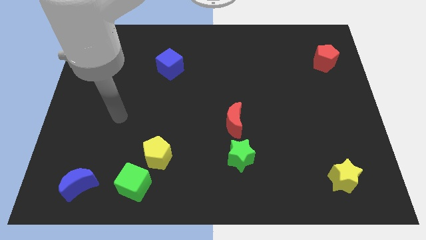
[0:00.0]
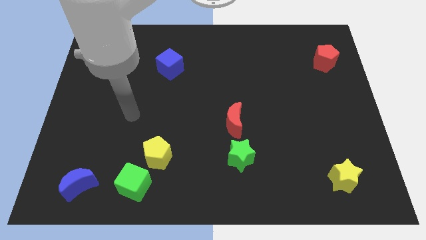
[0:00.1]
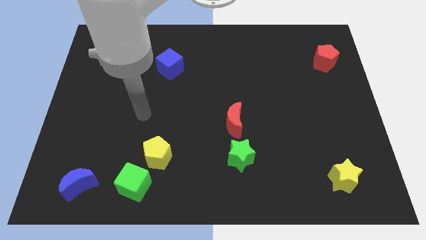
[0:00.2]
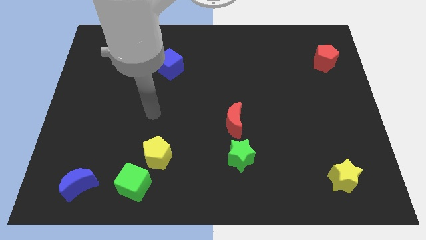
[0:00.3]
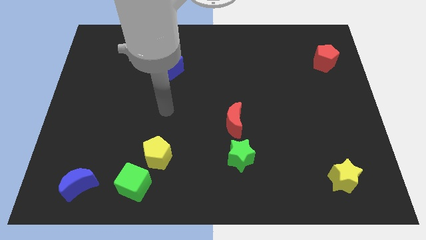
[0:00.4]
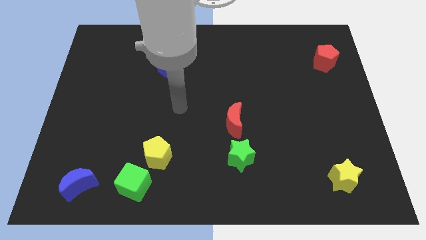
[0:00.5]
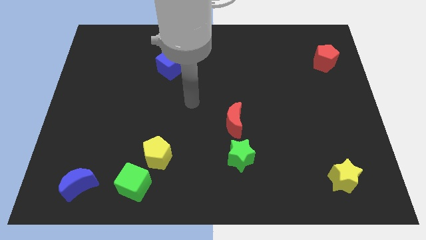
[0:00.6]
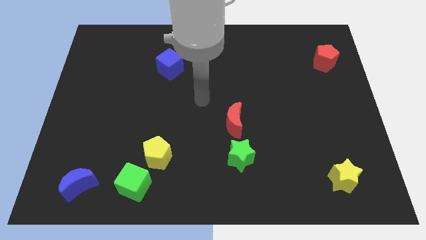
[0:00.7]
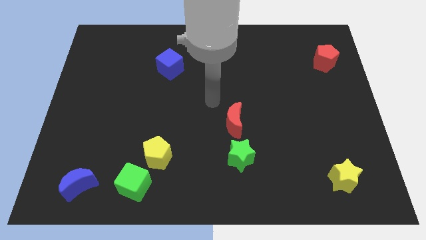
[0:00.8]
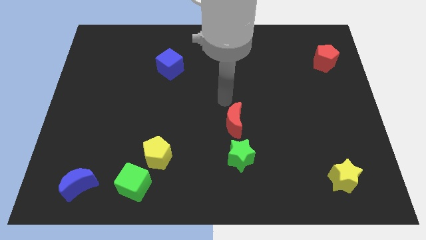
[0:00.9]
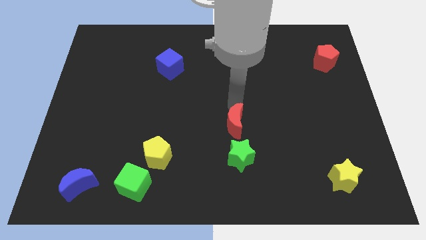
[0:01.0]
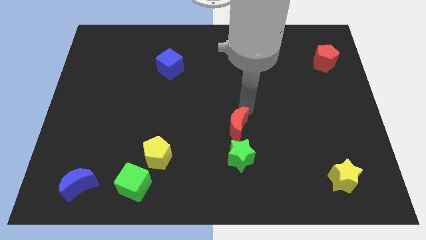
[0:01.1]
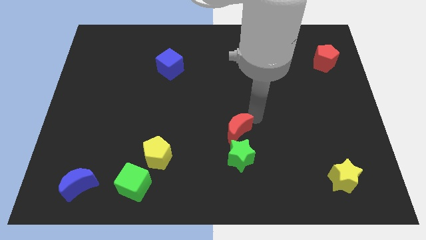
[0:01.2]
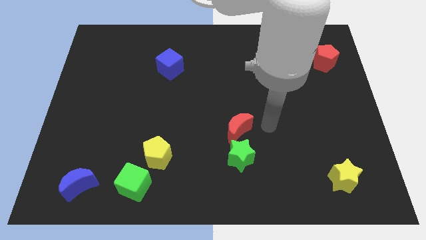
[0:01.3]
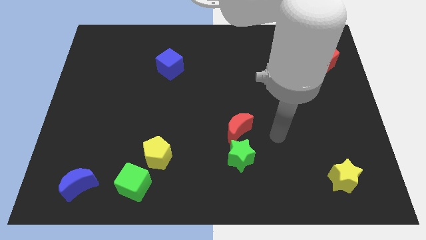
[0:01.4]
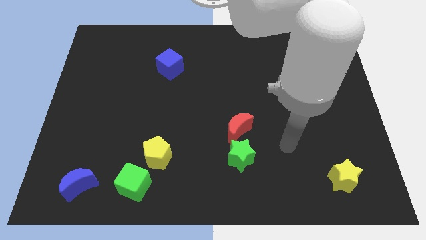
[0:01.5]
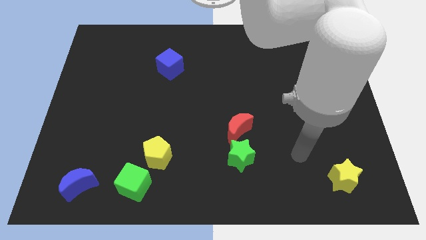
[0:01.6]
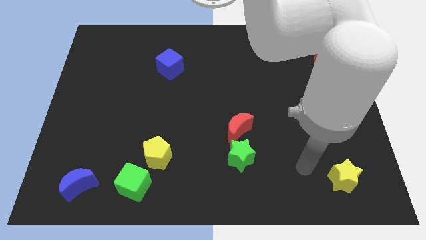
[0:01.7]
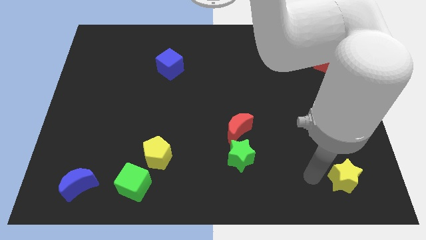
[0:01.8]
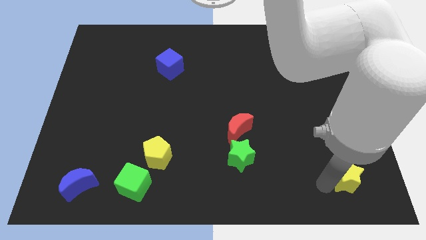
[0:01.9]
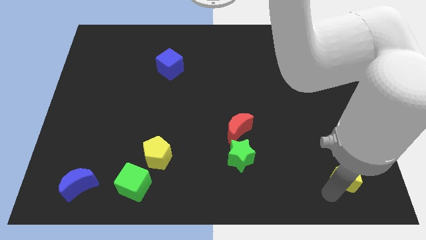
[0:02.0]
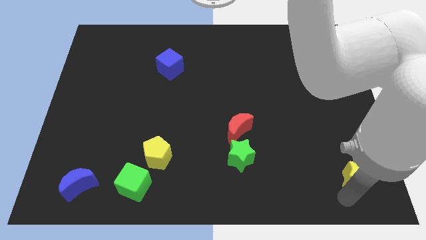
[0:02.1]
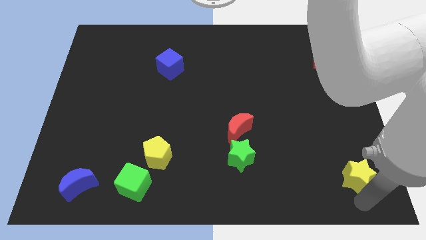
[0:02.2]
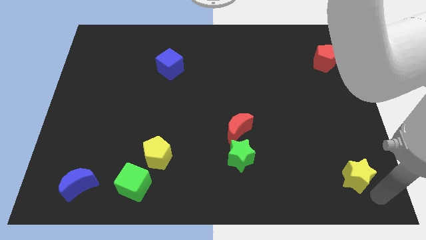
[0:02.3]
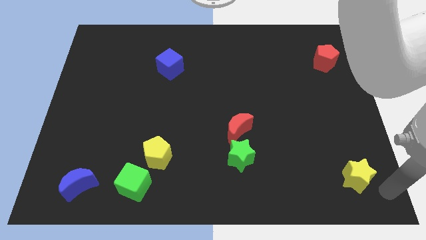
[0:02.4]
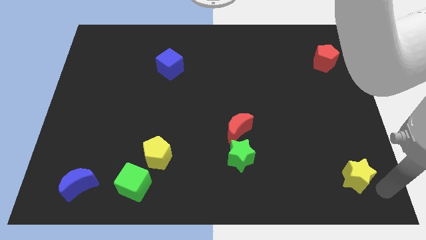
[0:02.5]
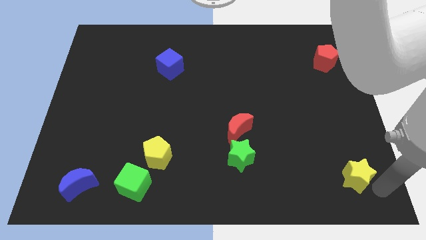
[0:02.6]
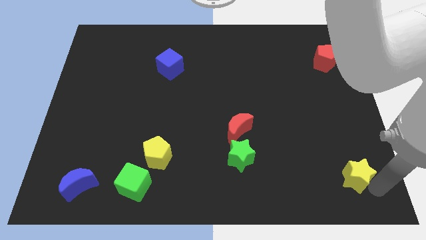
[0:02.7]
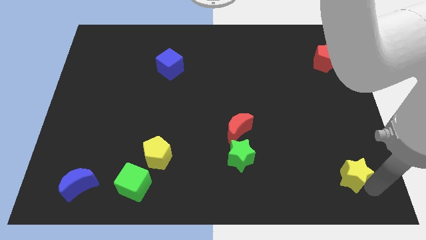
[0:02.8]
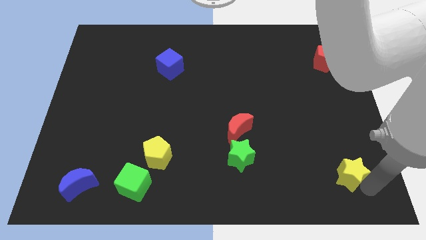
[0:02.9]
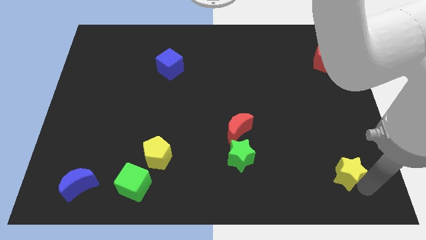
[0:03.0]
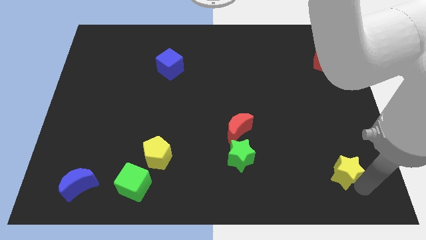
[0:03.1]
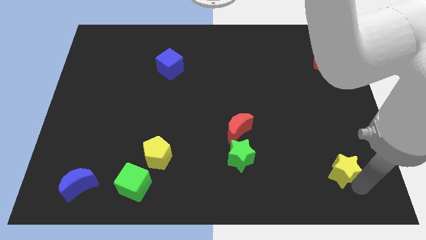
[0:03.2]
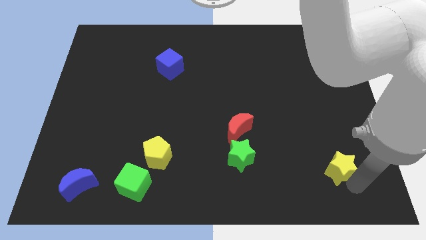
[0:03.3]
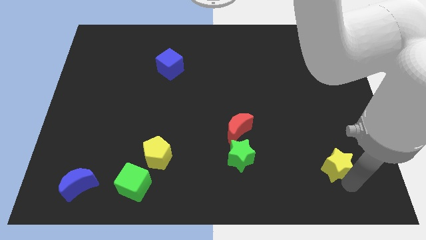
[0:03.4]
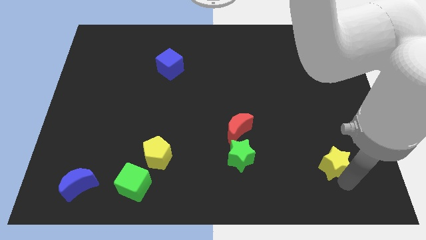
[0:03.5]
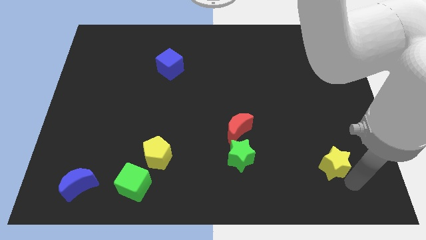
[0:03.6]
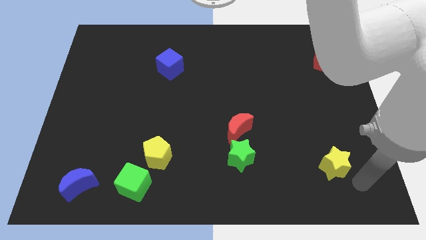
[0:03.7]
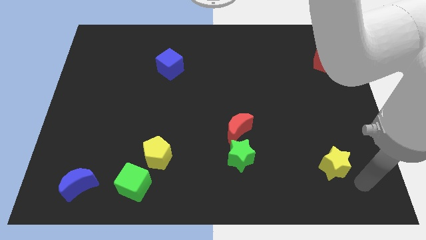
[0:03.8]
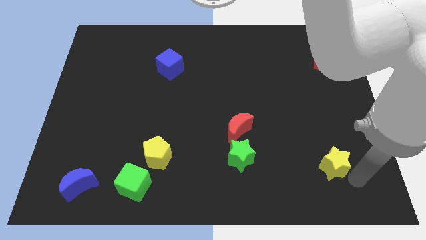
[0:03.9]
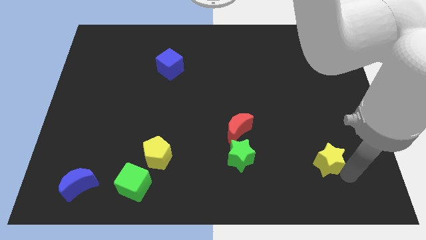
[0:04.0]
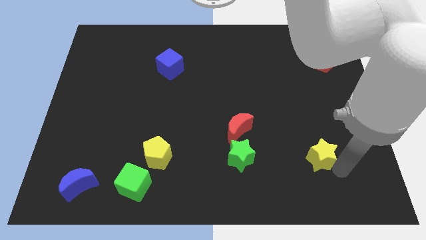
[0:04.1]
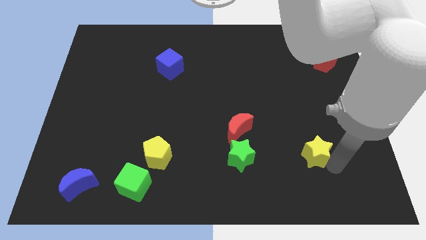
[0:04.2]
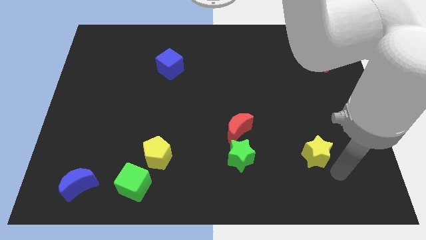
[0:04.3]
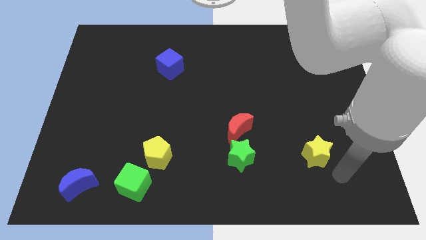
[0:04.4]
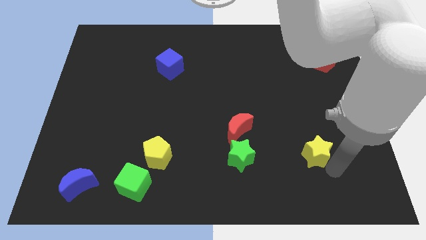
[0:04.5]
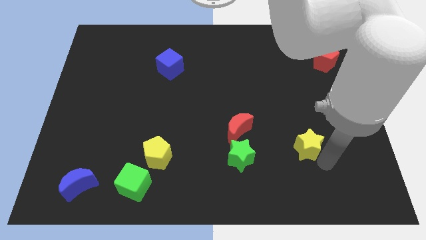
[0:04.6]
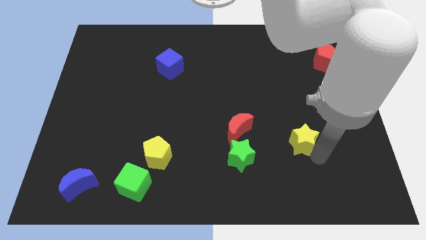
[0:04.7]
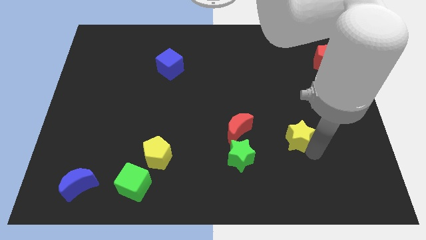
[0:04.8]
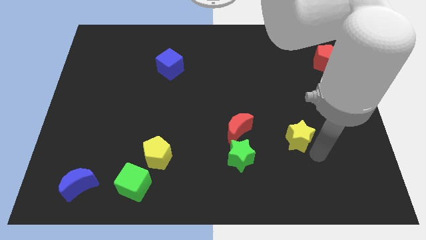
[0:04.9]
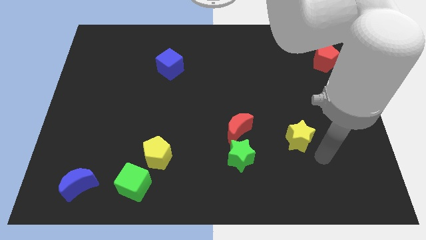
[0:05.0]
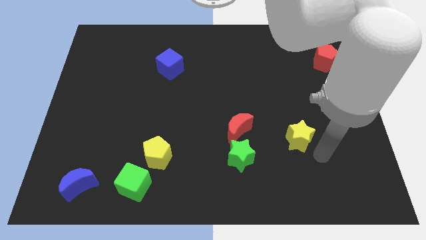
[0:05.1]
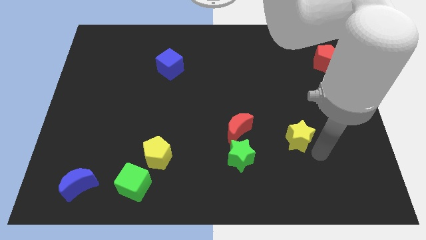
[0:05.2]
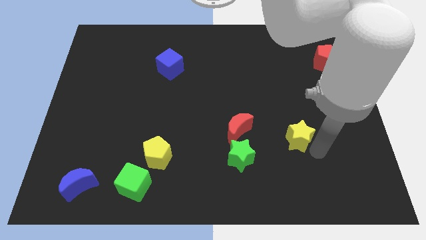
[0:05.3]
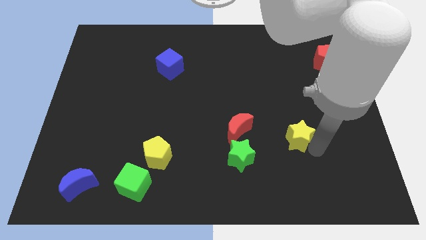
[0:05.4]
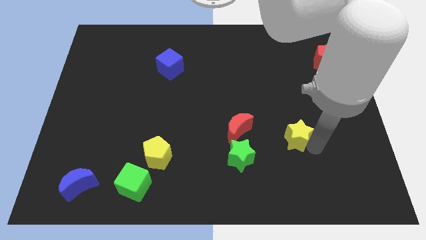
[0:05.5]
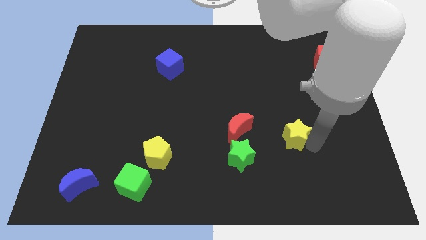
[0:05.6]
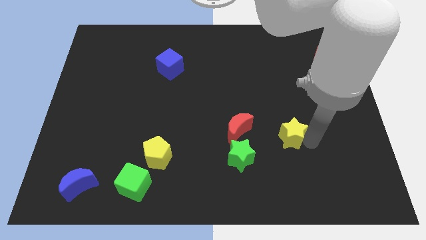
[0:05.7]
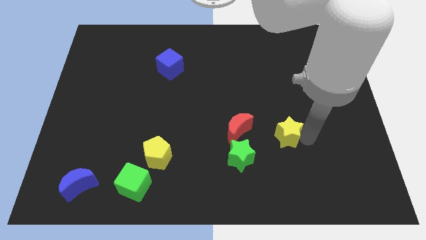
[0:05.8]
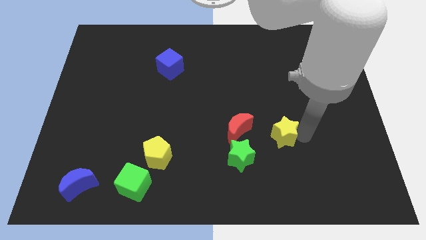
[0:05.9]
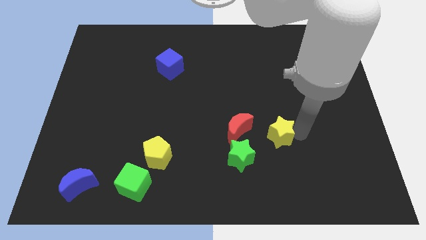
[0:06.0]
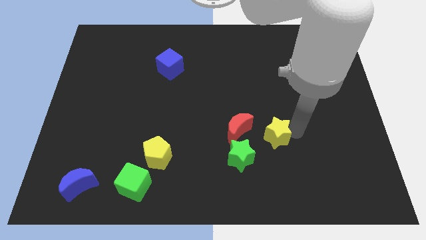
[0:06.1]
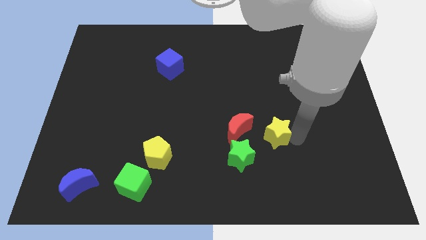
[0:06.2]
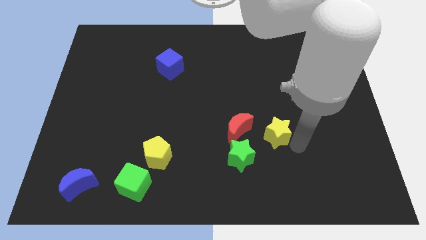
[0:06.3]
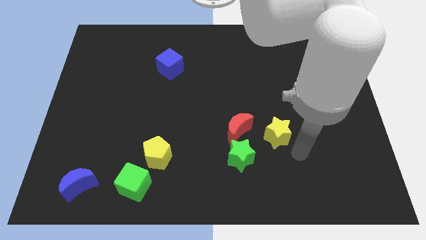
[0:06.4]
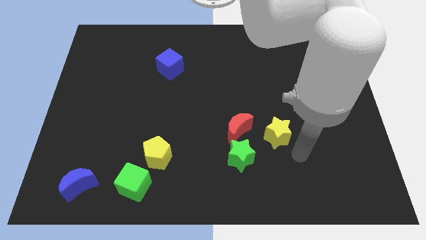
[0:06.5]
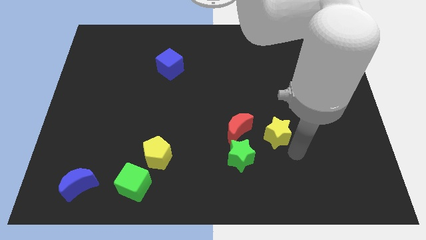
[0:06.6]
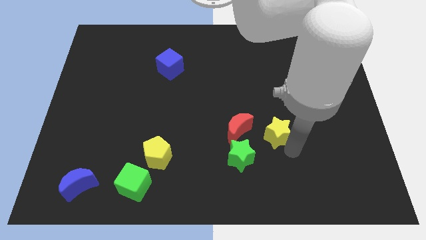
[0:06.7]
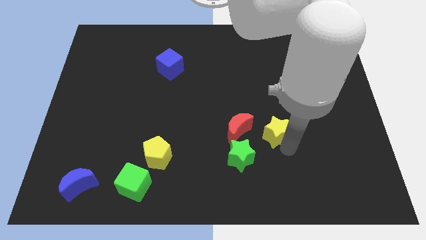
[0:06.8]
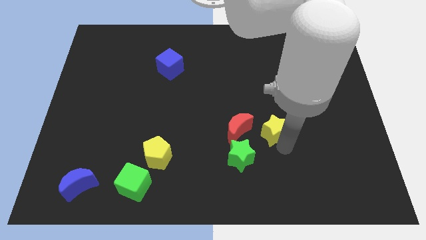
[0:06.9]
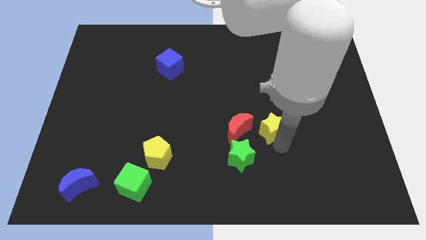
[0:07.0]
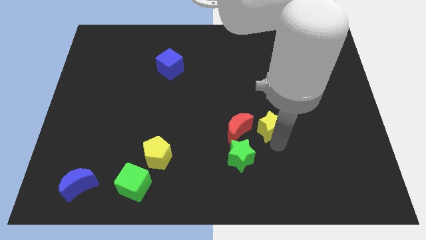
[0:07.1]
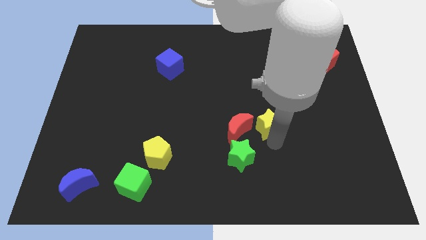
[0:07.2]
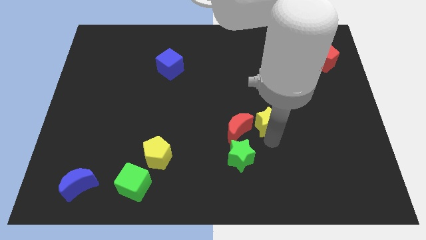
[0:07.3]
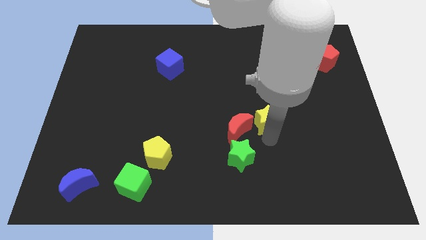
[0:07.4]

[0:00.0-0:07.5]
move the yellow star up and then left

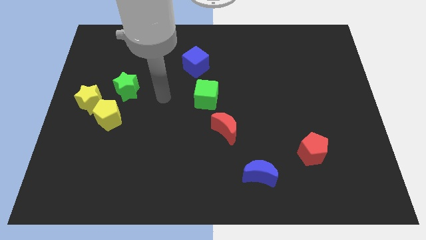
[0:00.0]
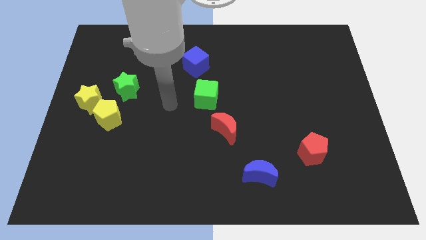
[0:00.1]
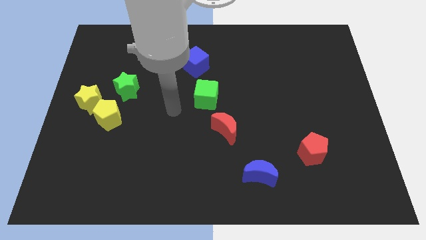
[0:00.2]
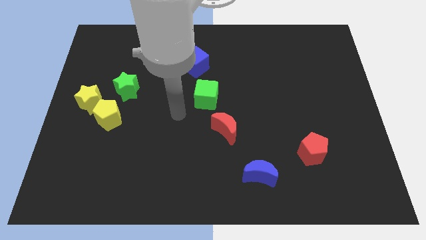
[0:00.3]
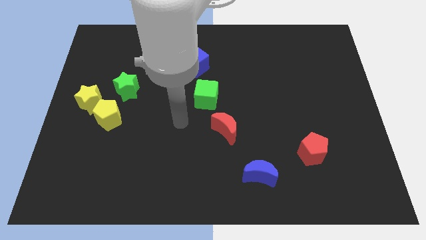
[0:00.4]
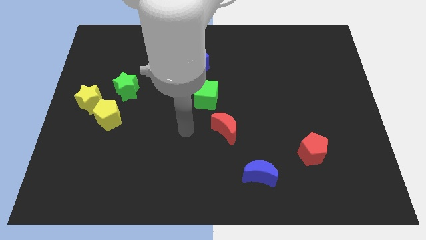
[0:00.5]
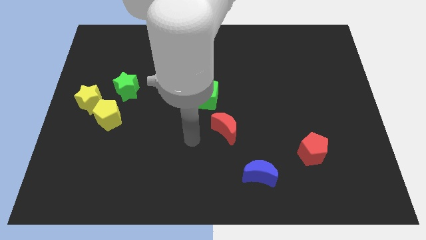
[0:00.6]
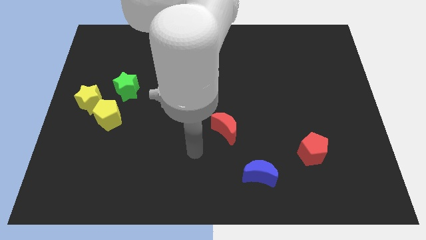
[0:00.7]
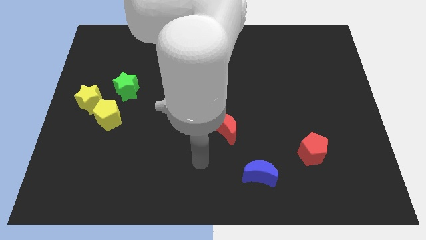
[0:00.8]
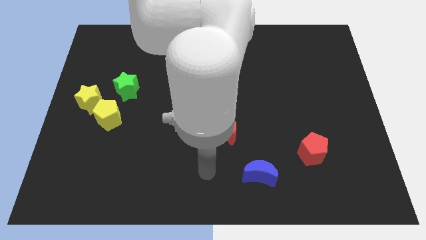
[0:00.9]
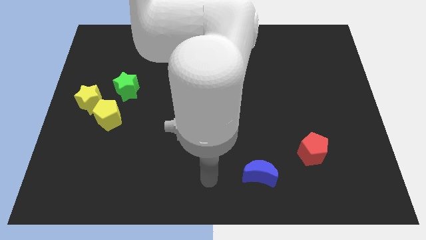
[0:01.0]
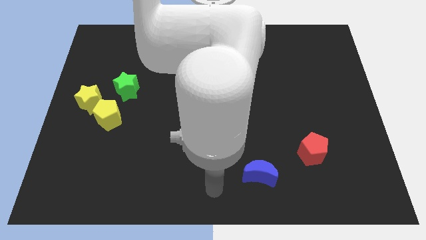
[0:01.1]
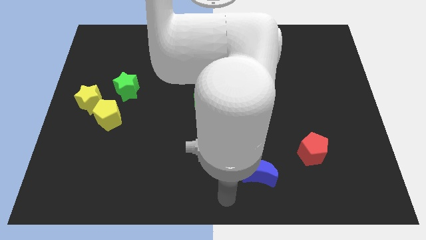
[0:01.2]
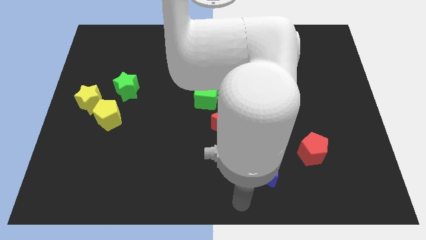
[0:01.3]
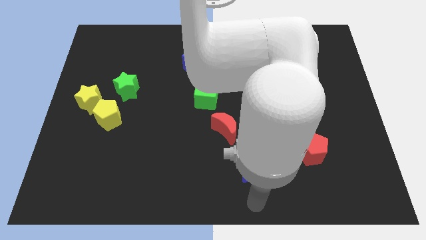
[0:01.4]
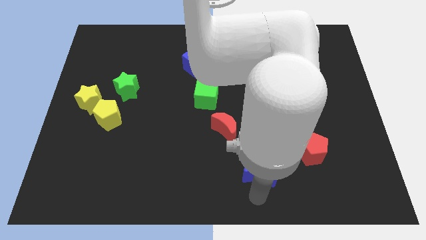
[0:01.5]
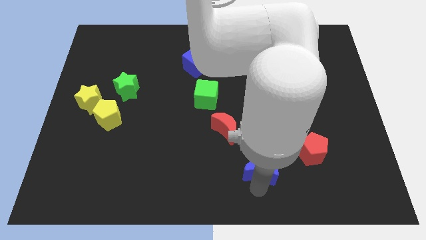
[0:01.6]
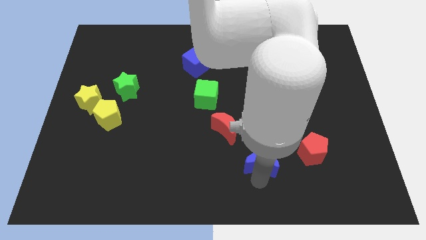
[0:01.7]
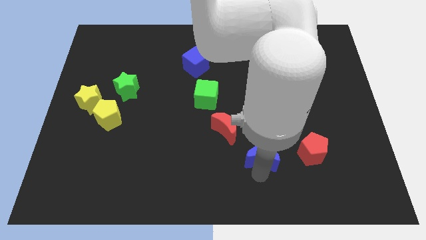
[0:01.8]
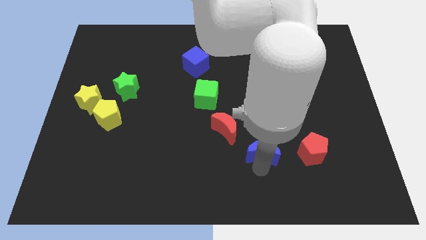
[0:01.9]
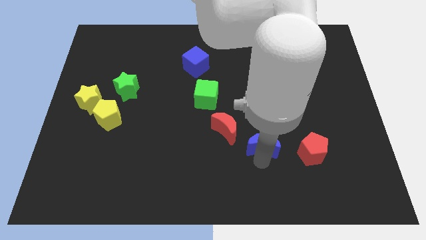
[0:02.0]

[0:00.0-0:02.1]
slightly move the blue moon up
